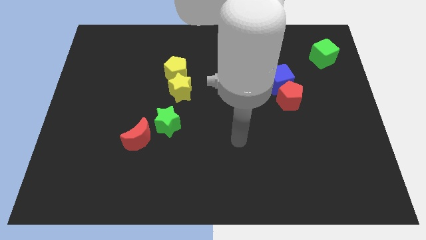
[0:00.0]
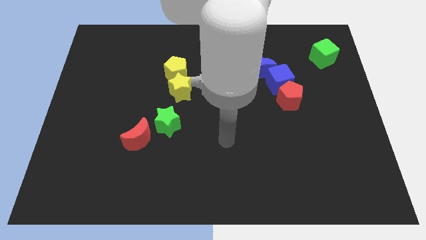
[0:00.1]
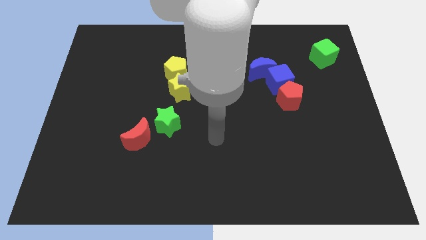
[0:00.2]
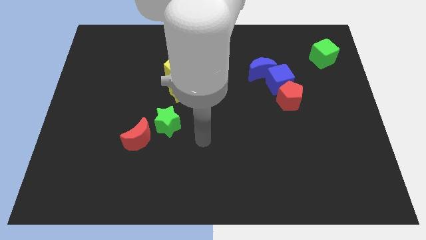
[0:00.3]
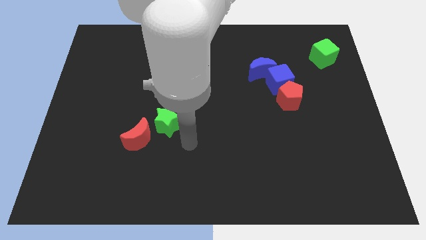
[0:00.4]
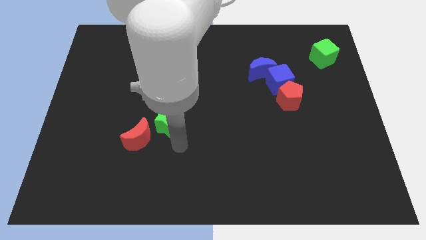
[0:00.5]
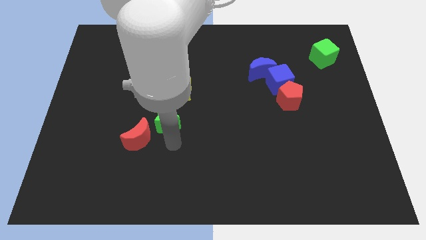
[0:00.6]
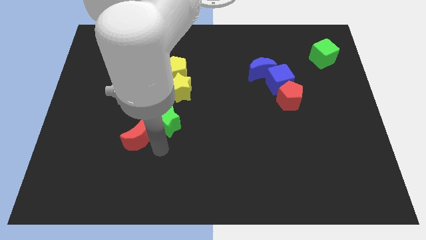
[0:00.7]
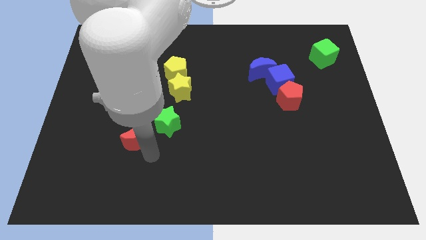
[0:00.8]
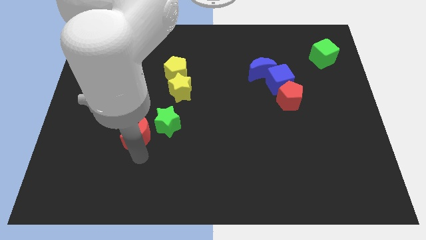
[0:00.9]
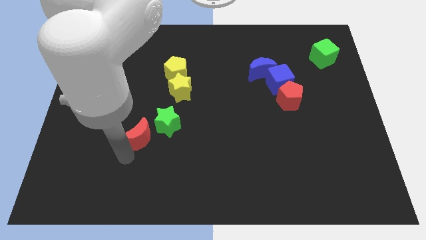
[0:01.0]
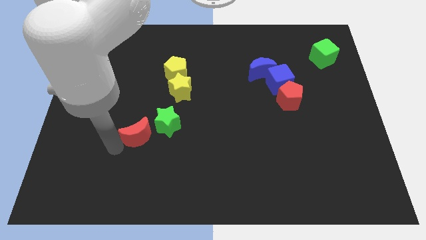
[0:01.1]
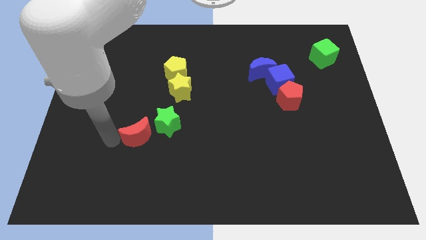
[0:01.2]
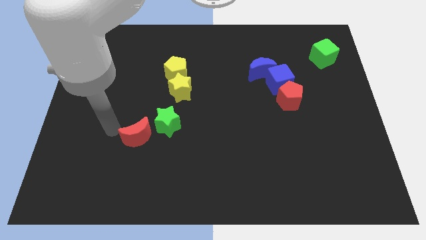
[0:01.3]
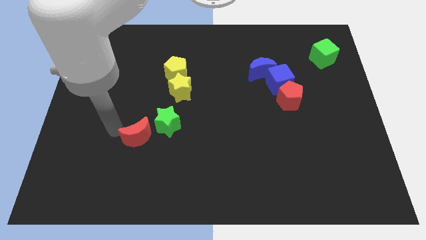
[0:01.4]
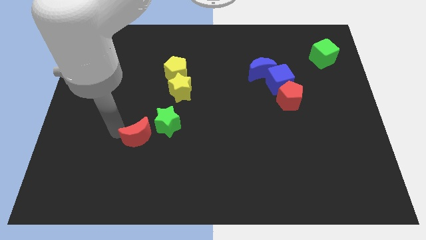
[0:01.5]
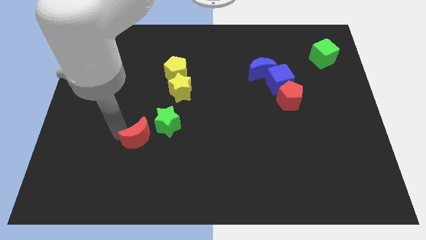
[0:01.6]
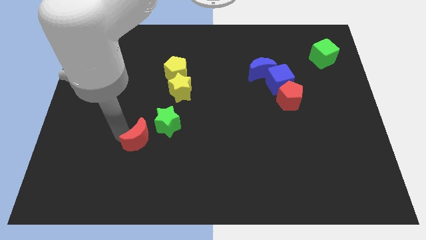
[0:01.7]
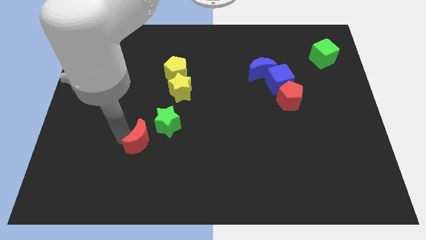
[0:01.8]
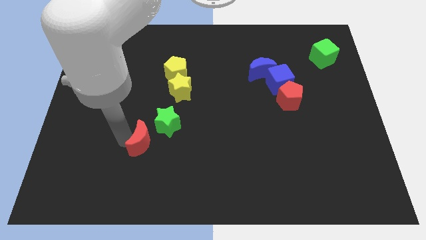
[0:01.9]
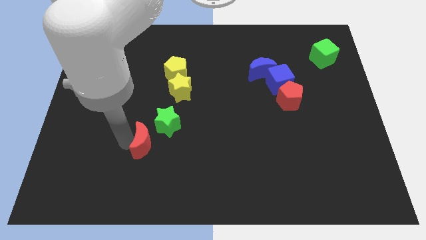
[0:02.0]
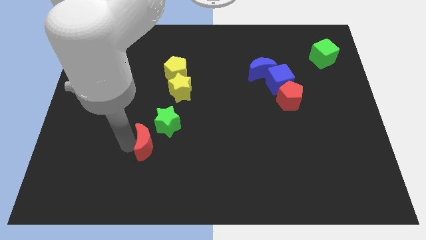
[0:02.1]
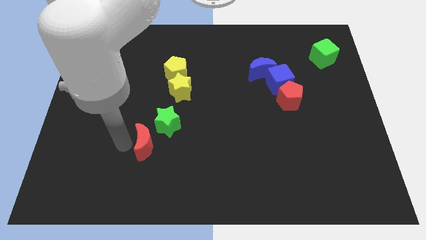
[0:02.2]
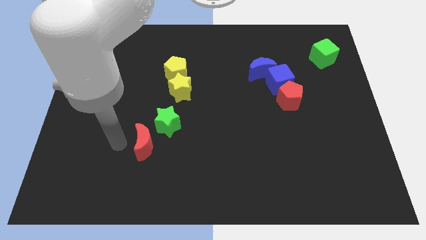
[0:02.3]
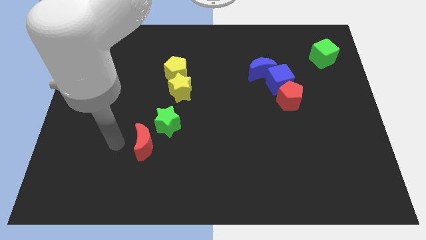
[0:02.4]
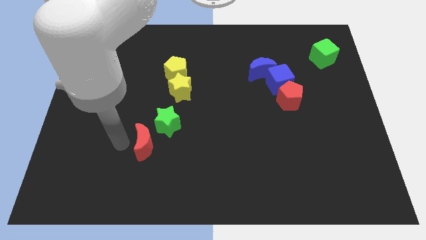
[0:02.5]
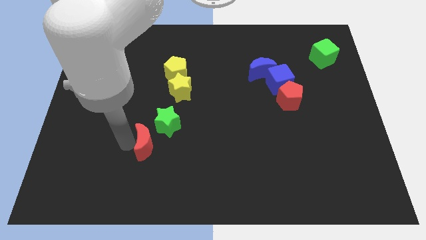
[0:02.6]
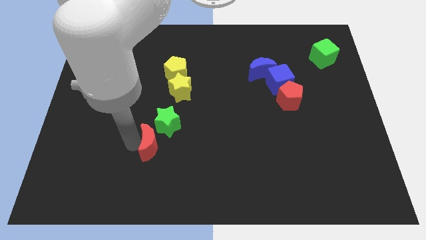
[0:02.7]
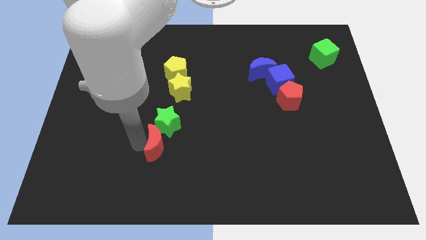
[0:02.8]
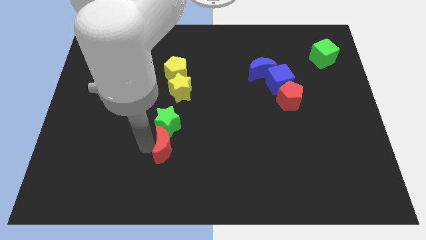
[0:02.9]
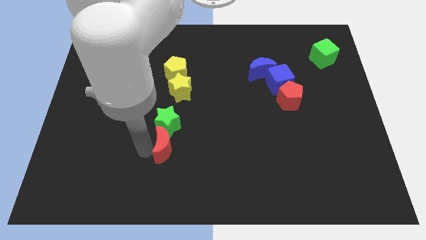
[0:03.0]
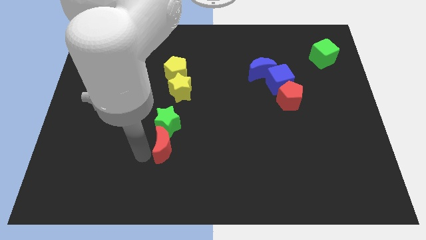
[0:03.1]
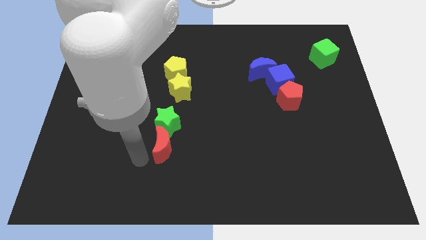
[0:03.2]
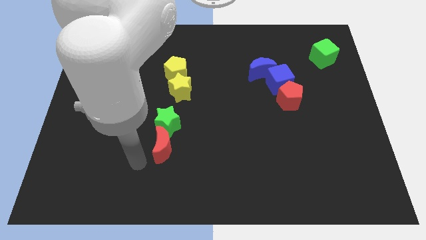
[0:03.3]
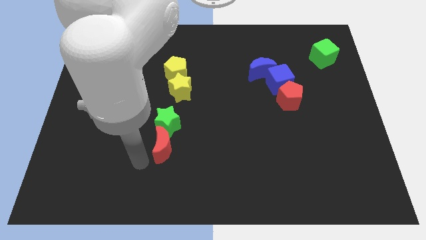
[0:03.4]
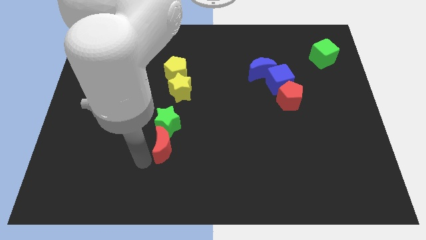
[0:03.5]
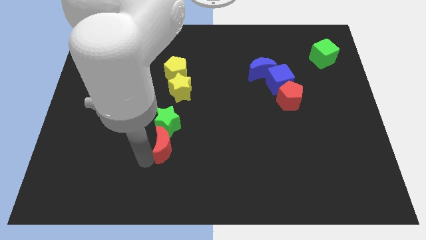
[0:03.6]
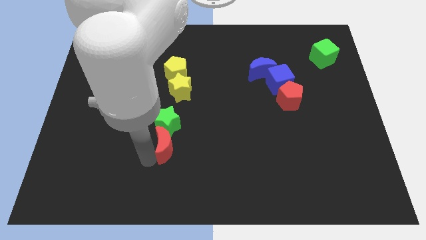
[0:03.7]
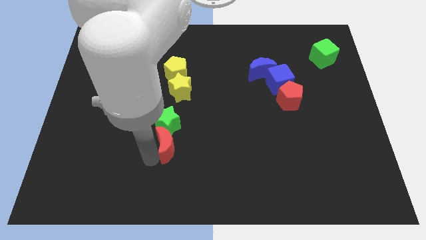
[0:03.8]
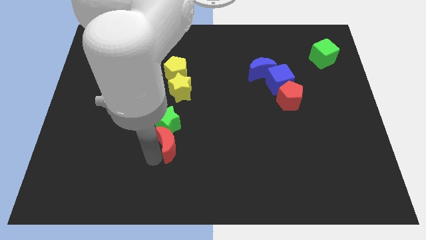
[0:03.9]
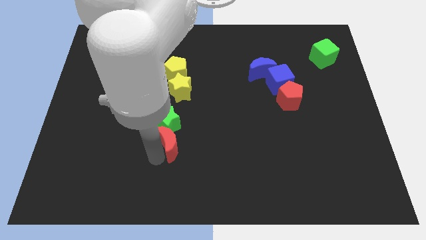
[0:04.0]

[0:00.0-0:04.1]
slide the red moon to the right somewhat

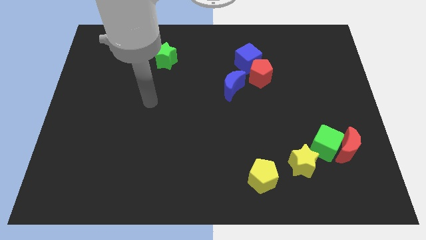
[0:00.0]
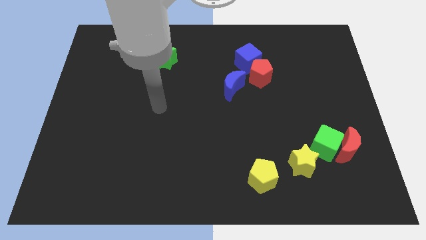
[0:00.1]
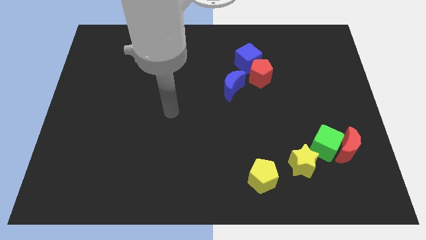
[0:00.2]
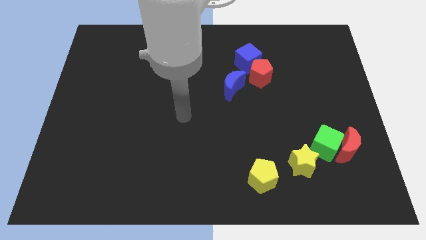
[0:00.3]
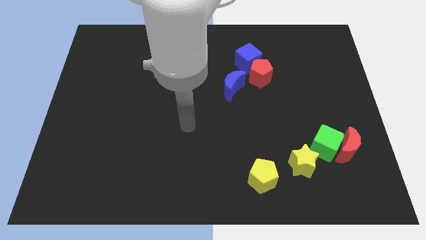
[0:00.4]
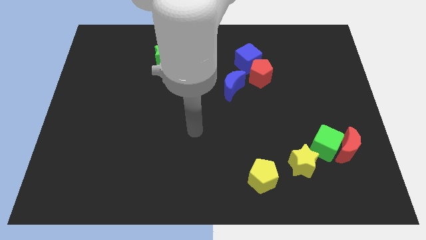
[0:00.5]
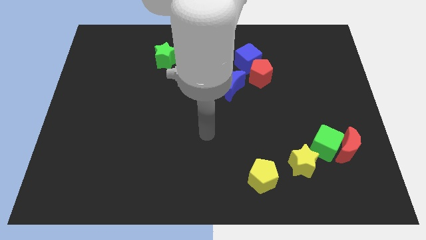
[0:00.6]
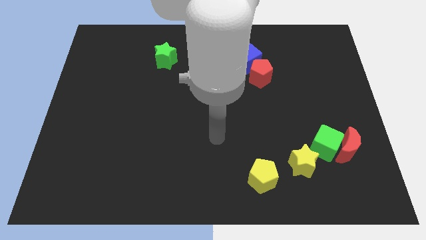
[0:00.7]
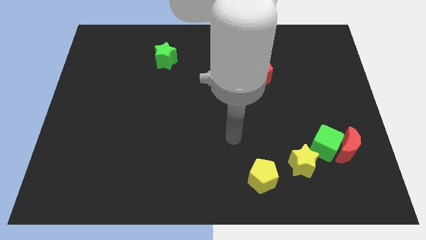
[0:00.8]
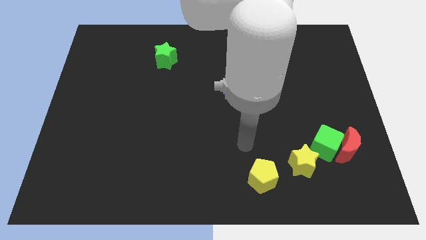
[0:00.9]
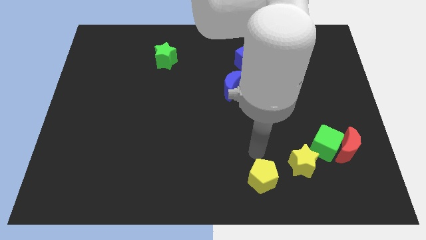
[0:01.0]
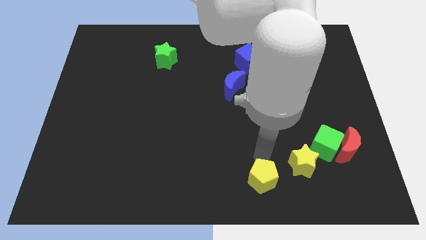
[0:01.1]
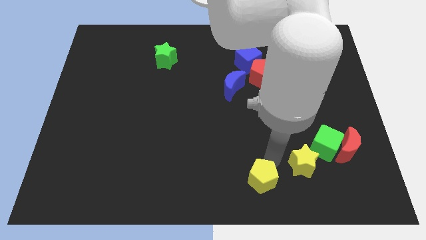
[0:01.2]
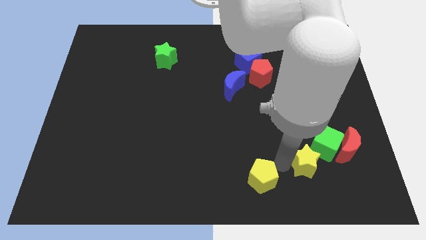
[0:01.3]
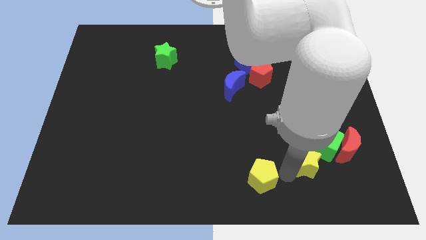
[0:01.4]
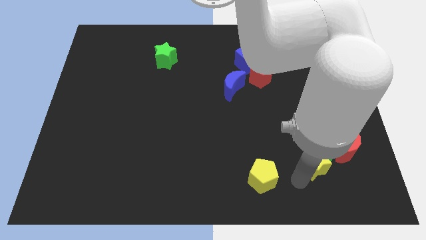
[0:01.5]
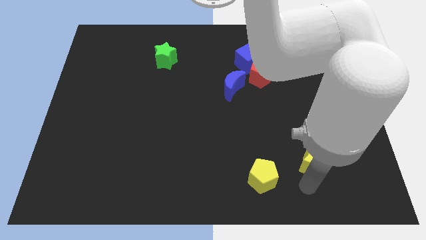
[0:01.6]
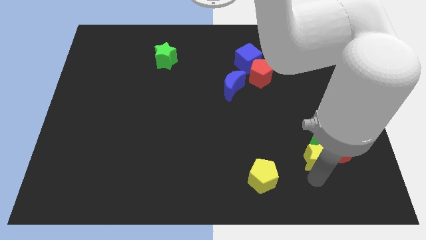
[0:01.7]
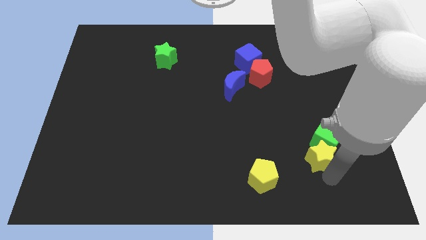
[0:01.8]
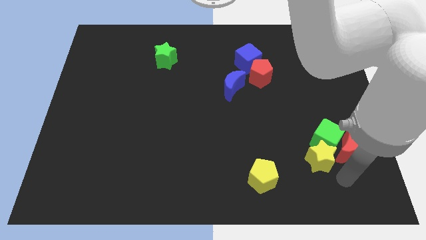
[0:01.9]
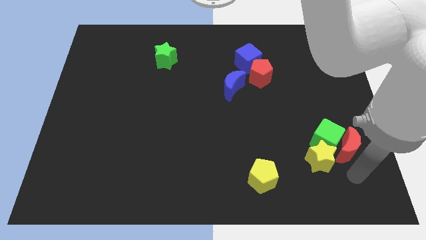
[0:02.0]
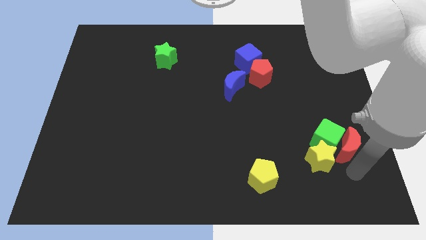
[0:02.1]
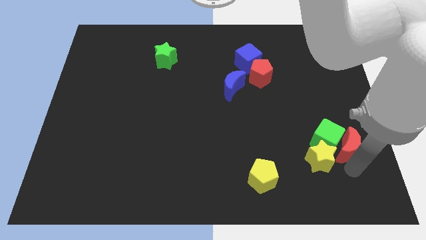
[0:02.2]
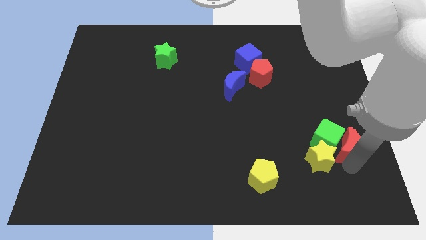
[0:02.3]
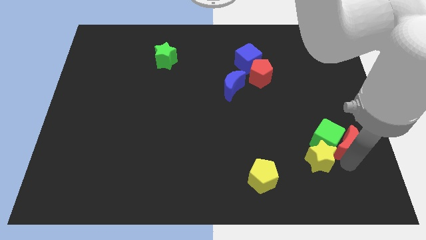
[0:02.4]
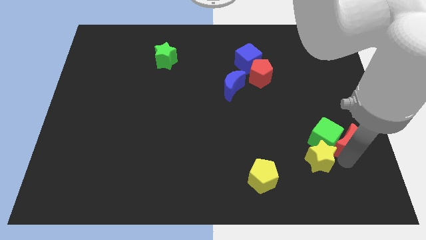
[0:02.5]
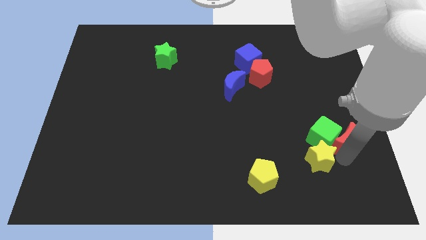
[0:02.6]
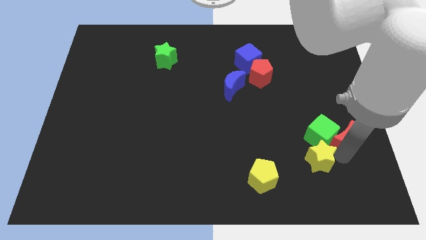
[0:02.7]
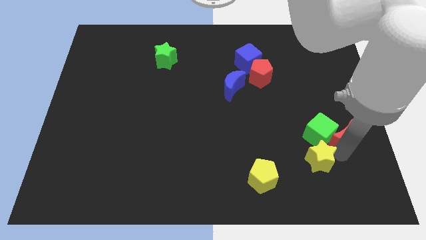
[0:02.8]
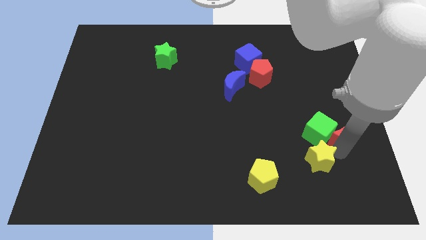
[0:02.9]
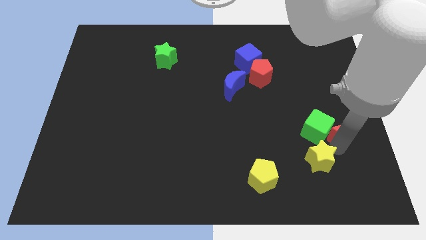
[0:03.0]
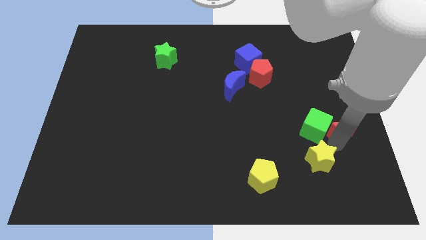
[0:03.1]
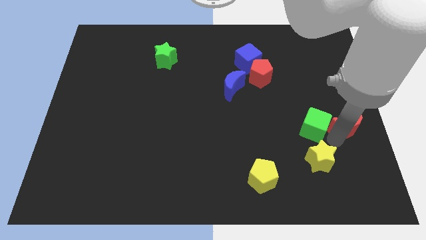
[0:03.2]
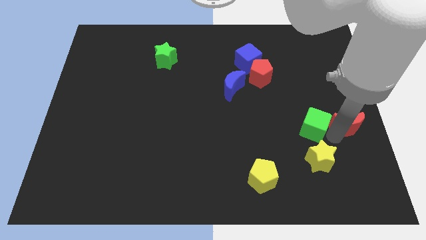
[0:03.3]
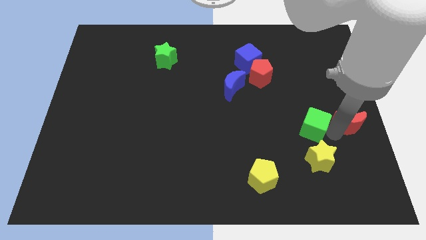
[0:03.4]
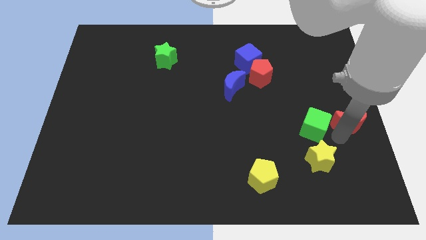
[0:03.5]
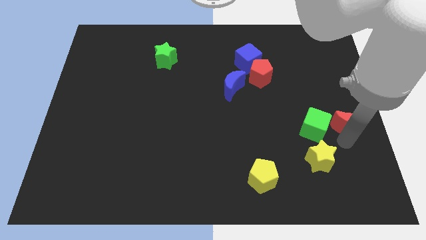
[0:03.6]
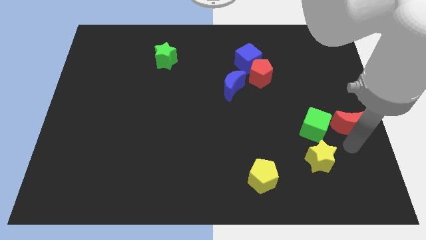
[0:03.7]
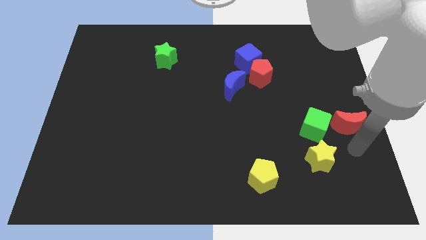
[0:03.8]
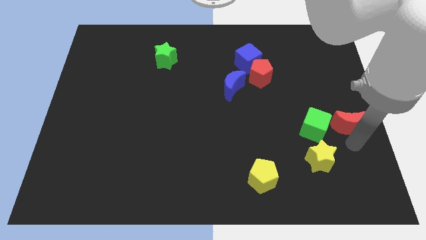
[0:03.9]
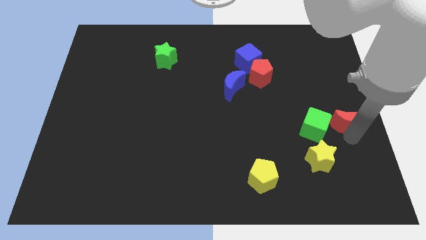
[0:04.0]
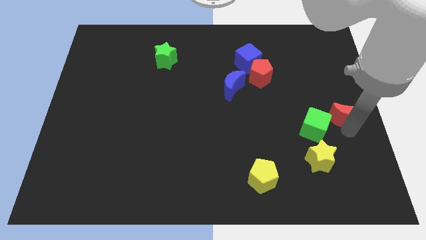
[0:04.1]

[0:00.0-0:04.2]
move the red moon upwards a little bit

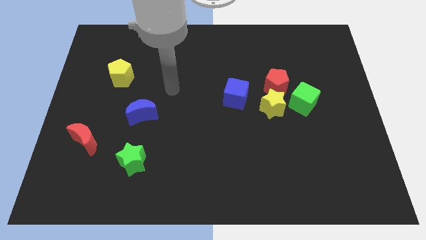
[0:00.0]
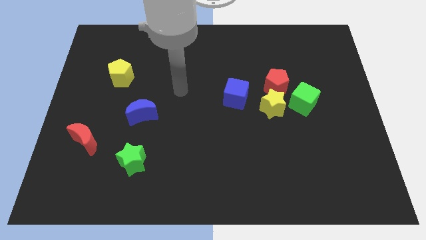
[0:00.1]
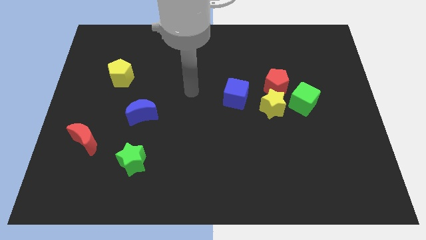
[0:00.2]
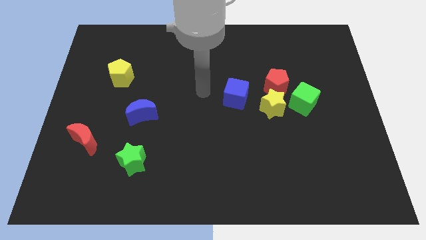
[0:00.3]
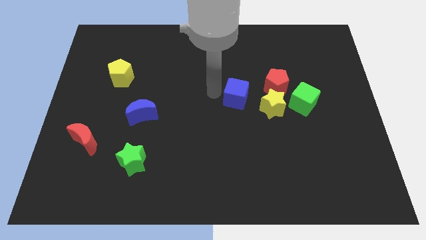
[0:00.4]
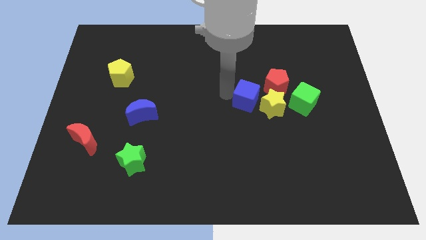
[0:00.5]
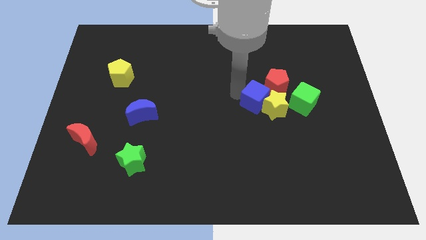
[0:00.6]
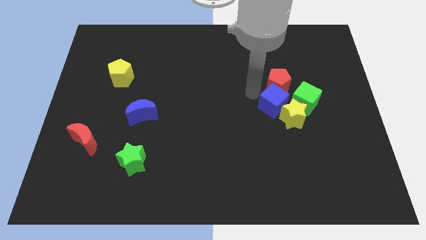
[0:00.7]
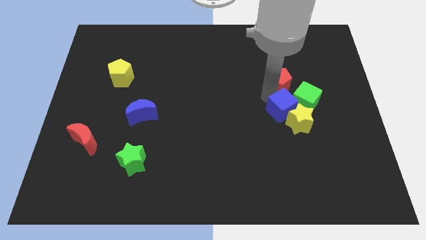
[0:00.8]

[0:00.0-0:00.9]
push the yellow star a little bit diagonally down and right
